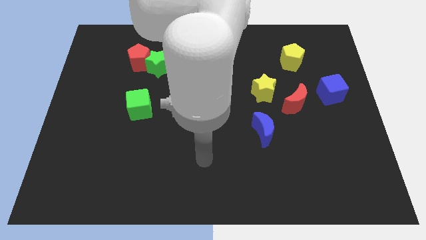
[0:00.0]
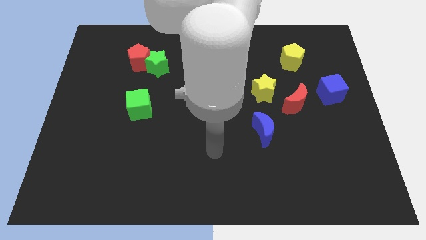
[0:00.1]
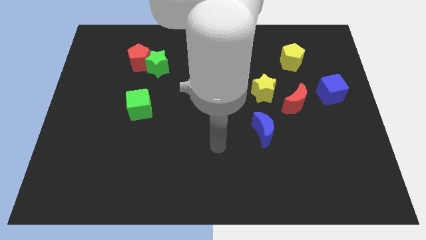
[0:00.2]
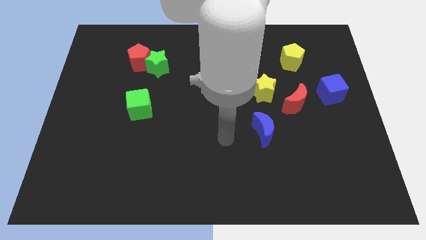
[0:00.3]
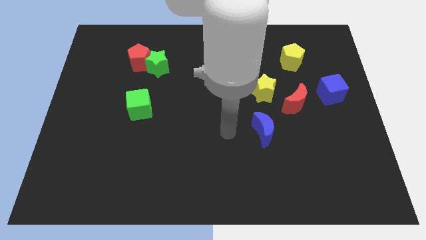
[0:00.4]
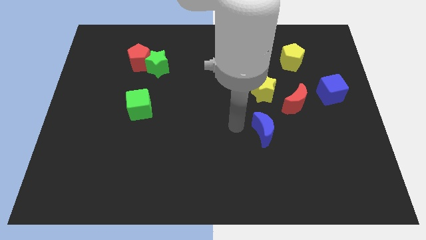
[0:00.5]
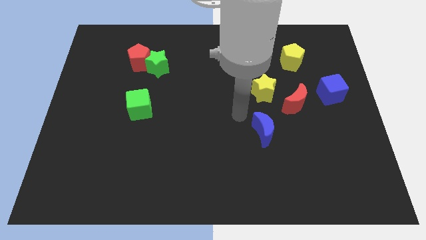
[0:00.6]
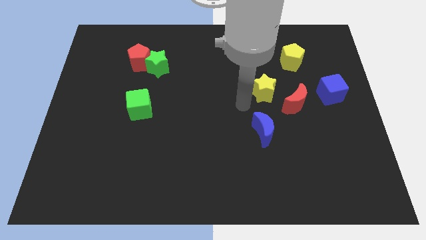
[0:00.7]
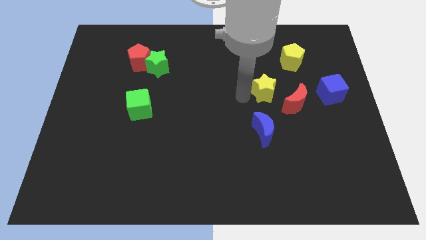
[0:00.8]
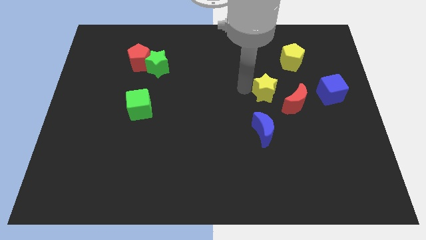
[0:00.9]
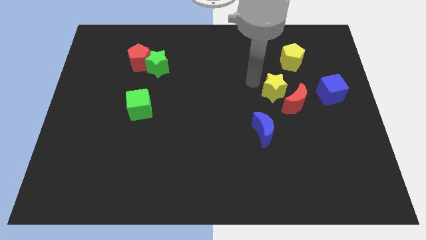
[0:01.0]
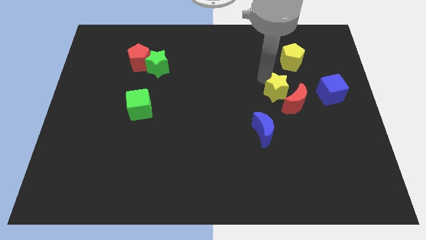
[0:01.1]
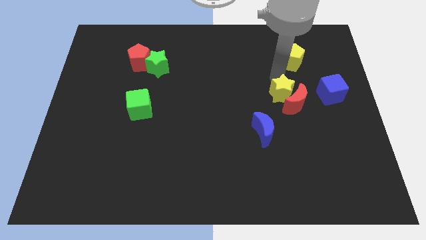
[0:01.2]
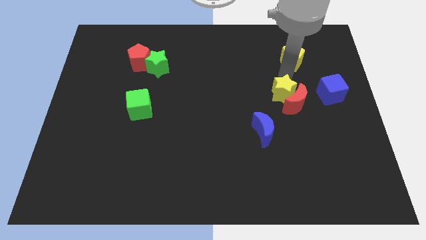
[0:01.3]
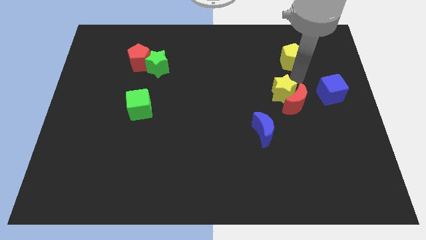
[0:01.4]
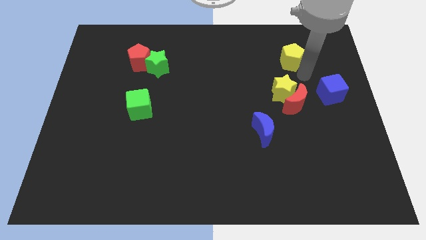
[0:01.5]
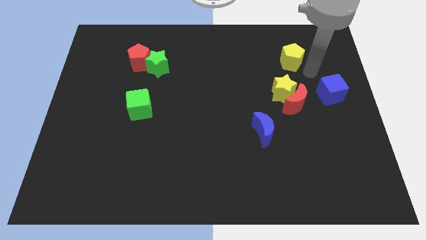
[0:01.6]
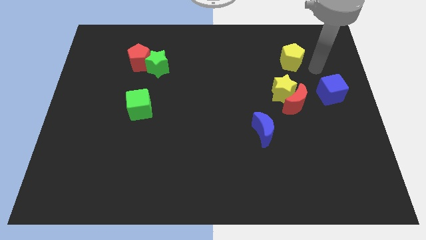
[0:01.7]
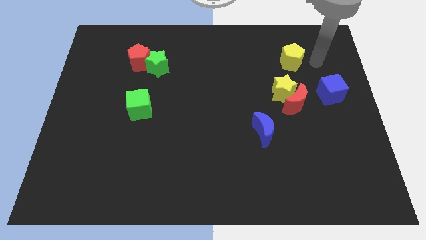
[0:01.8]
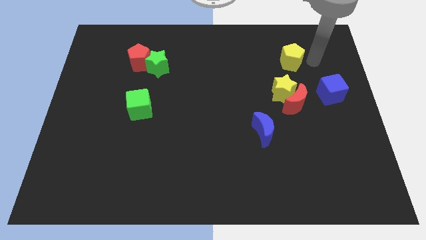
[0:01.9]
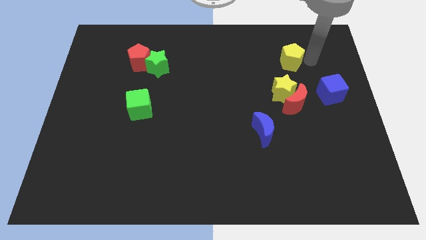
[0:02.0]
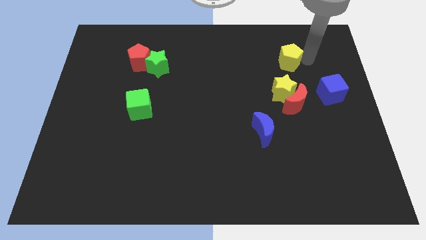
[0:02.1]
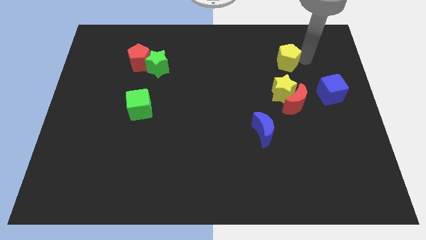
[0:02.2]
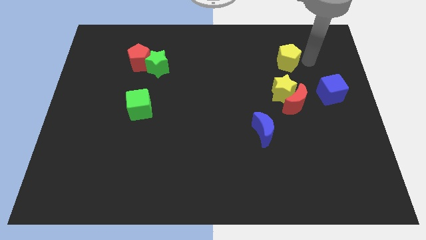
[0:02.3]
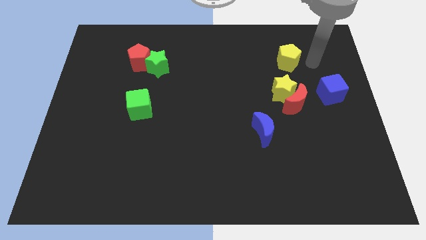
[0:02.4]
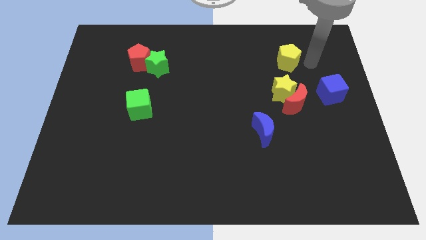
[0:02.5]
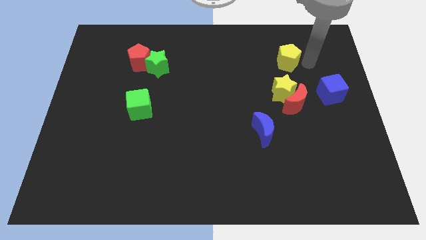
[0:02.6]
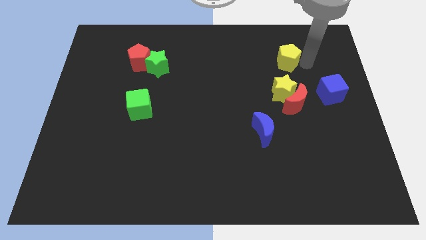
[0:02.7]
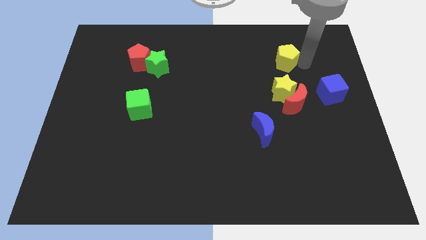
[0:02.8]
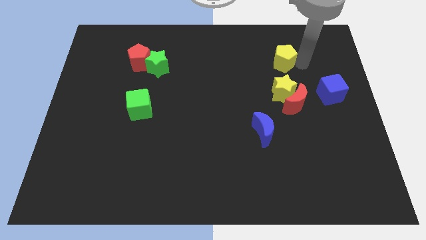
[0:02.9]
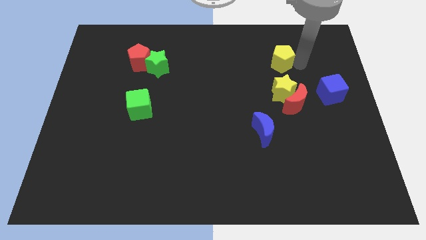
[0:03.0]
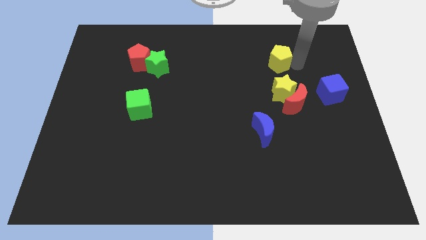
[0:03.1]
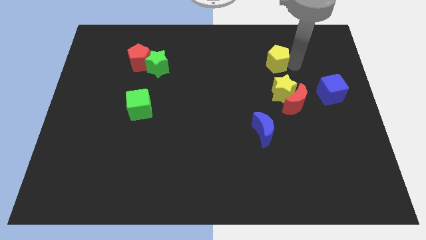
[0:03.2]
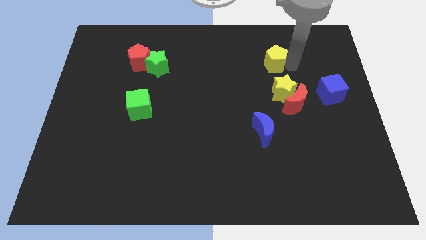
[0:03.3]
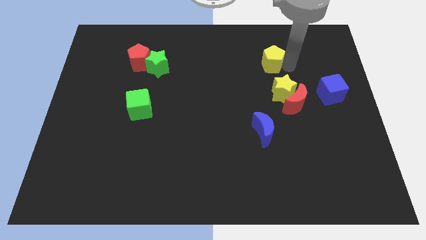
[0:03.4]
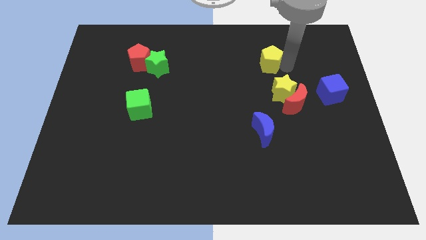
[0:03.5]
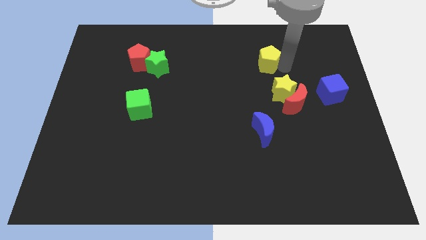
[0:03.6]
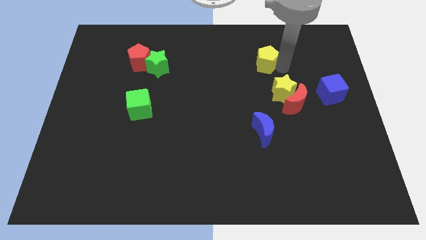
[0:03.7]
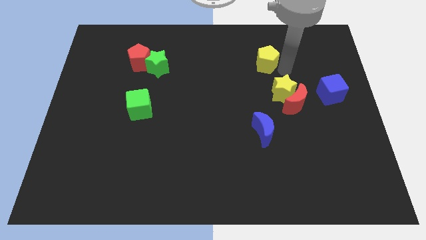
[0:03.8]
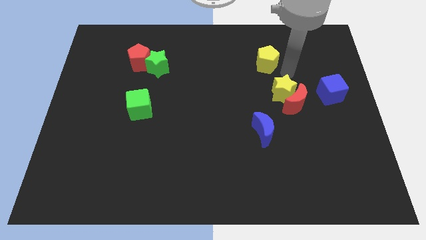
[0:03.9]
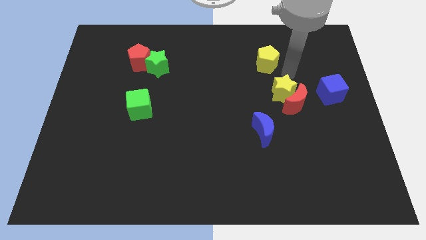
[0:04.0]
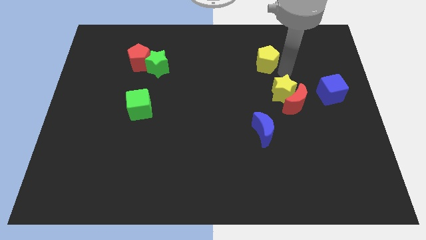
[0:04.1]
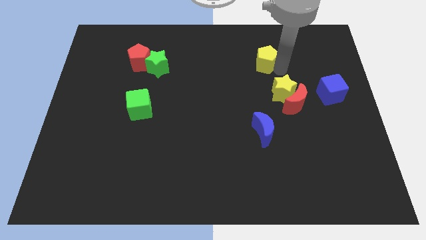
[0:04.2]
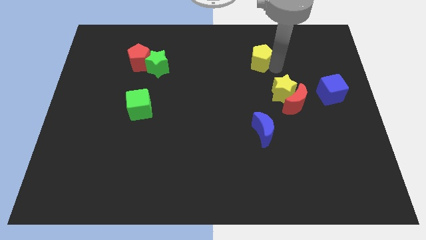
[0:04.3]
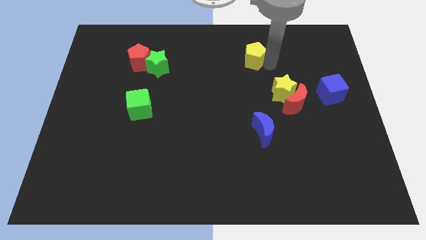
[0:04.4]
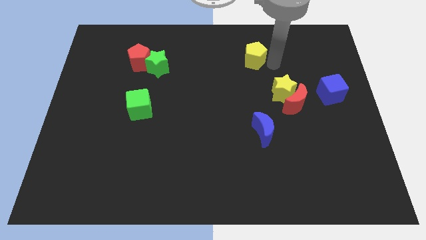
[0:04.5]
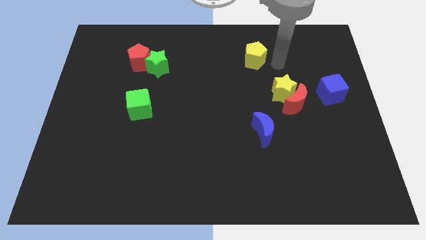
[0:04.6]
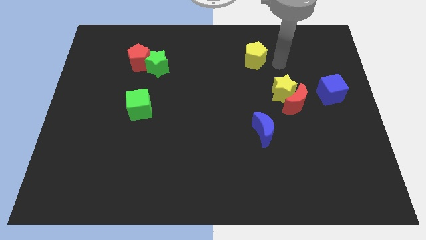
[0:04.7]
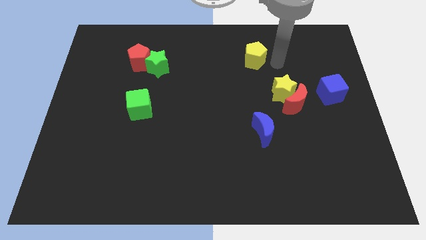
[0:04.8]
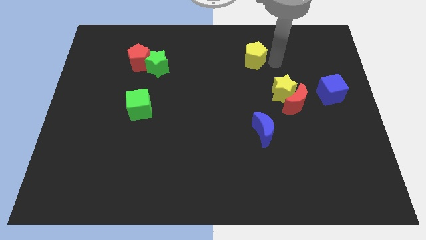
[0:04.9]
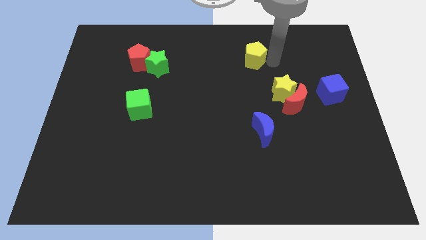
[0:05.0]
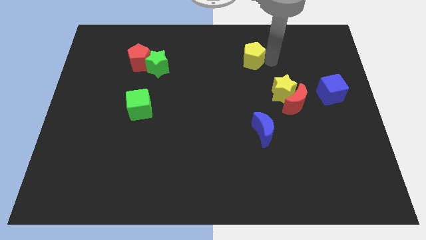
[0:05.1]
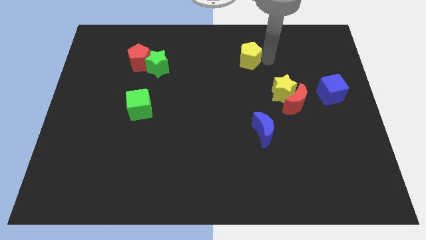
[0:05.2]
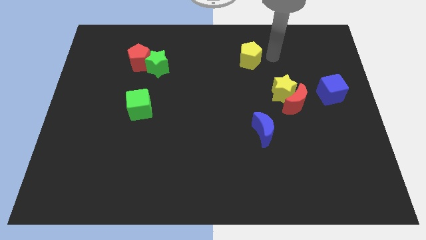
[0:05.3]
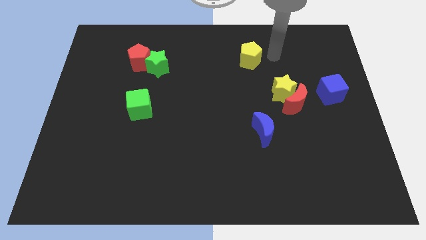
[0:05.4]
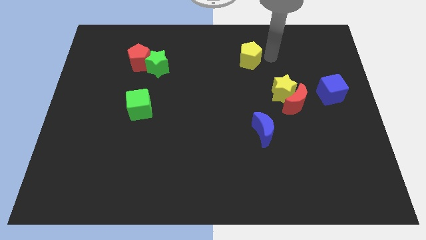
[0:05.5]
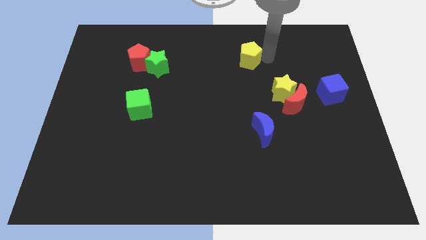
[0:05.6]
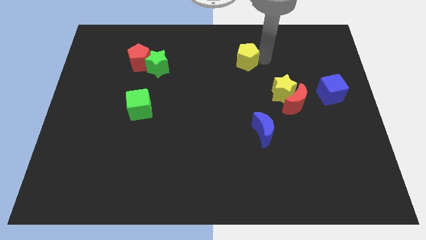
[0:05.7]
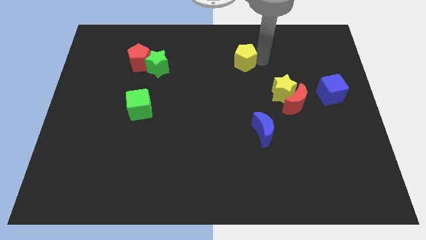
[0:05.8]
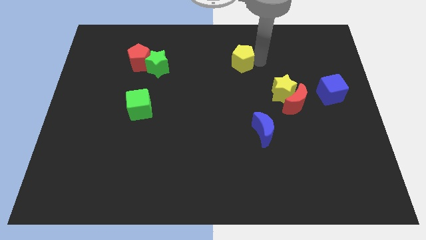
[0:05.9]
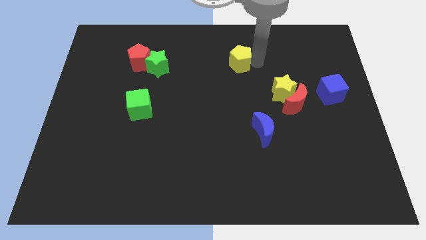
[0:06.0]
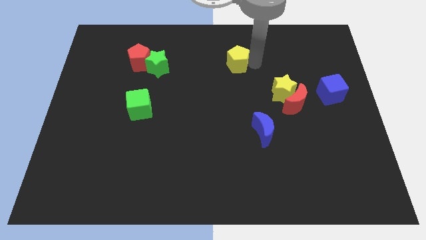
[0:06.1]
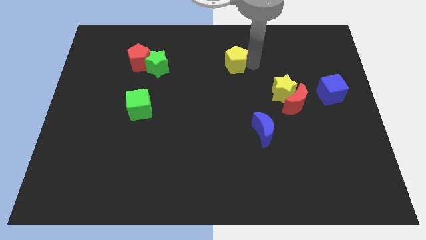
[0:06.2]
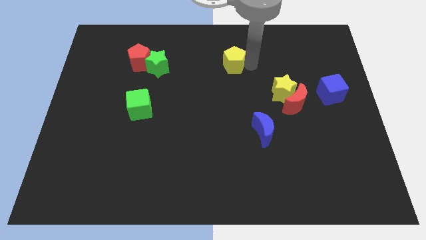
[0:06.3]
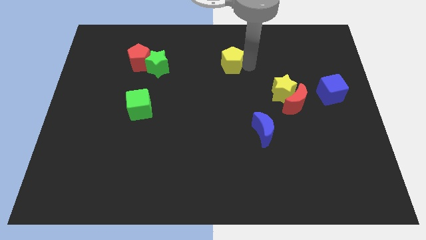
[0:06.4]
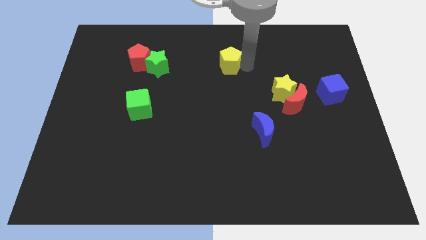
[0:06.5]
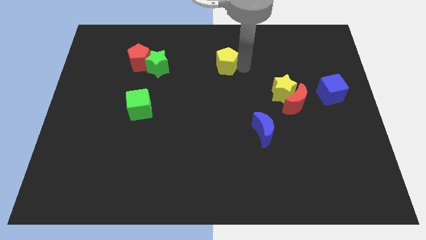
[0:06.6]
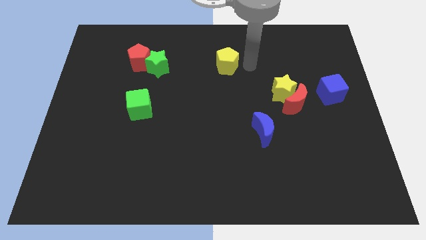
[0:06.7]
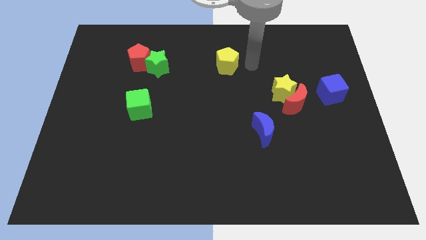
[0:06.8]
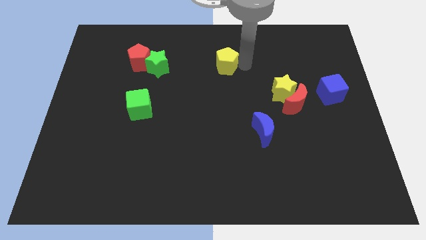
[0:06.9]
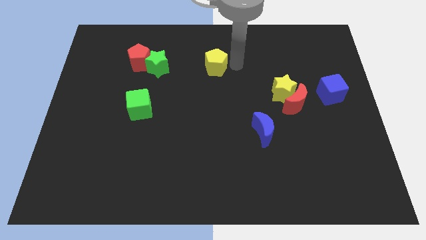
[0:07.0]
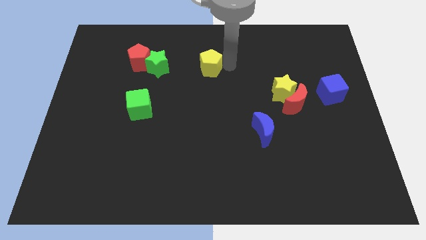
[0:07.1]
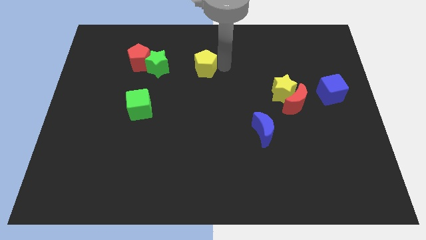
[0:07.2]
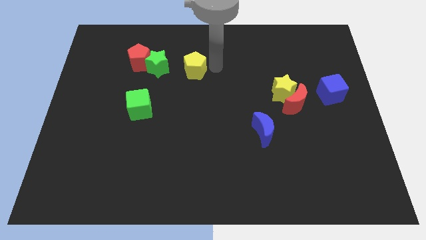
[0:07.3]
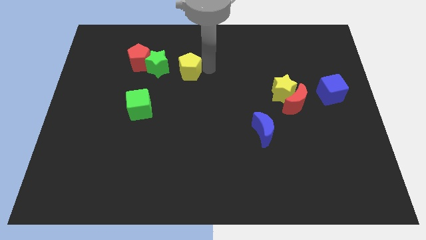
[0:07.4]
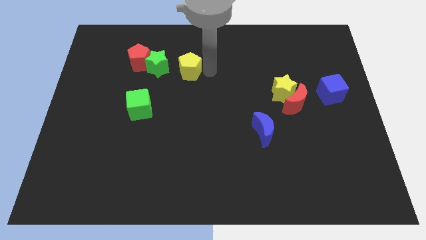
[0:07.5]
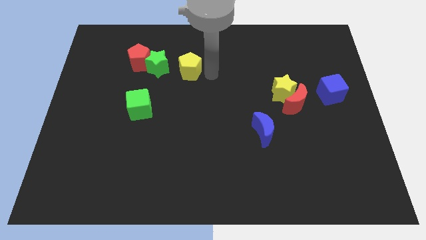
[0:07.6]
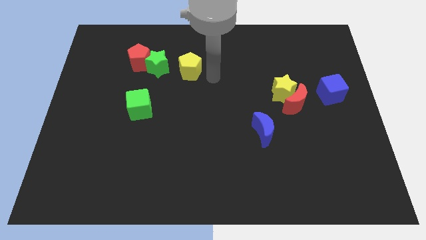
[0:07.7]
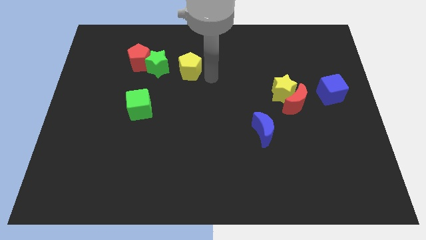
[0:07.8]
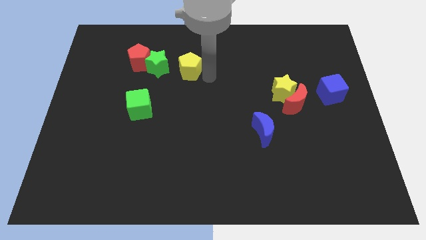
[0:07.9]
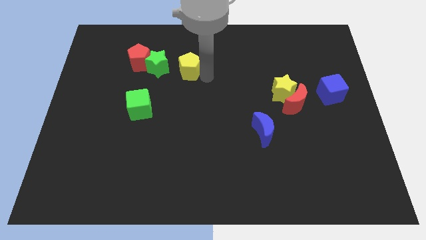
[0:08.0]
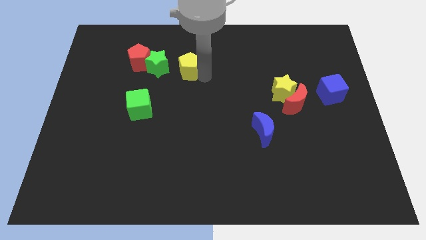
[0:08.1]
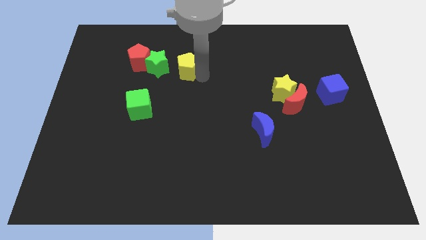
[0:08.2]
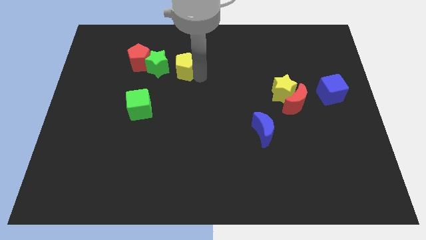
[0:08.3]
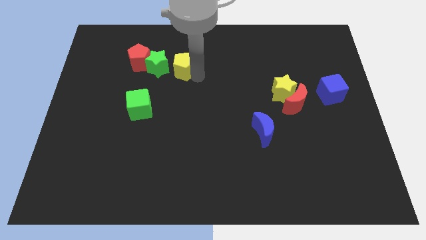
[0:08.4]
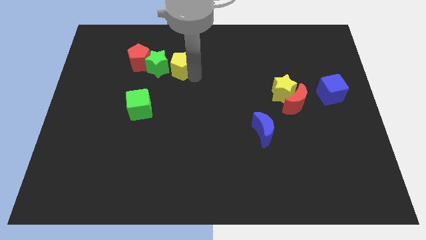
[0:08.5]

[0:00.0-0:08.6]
move the yellow pentagon to the green star
